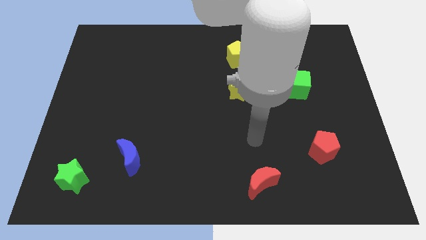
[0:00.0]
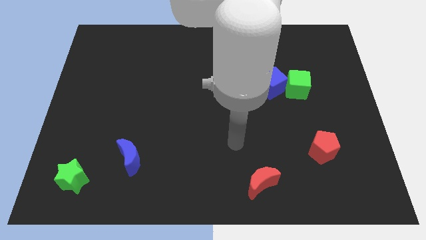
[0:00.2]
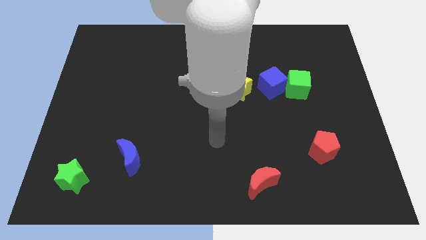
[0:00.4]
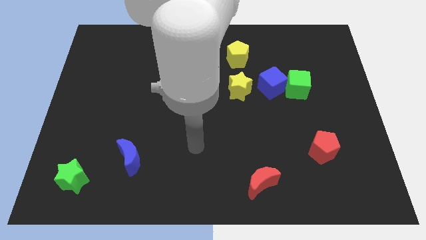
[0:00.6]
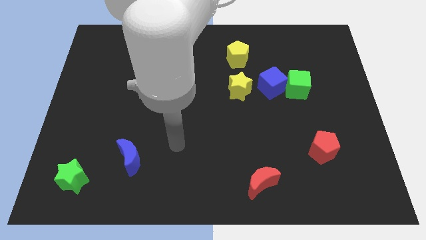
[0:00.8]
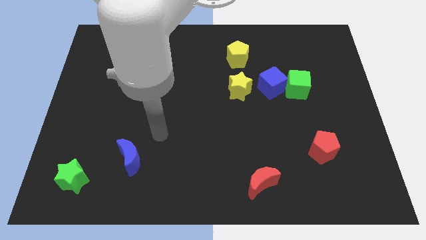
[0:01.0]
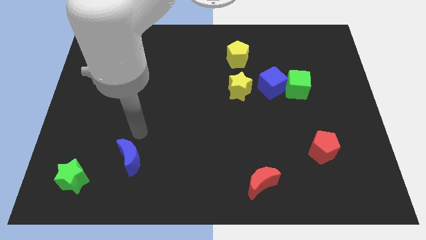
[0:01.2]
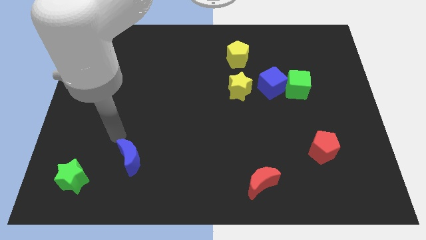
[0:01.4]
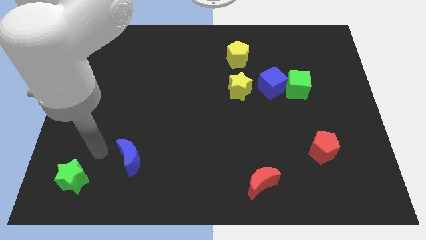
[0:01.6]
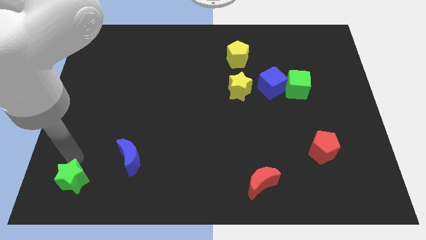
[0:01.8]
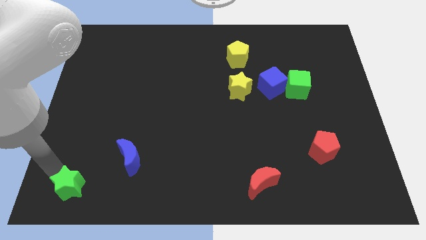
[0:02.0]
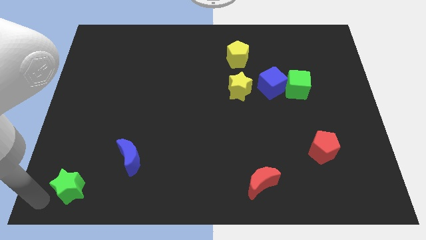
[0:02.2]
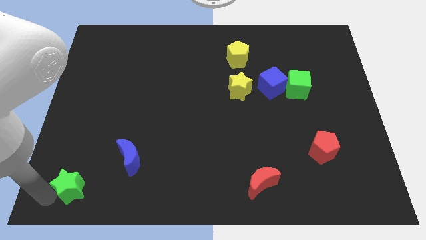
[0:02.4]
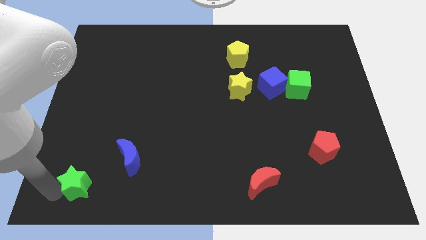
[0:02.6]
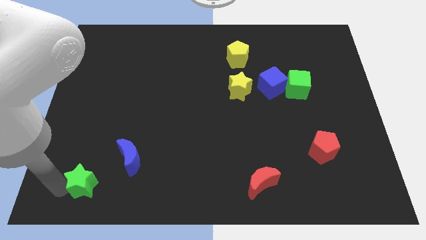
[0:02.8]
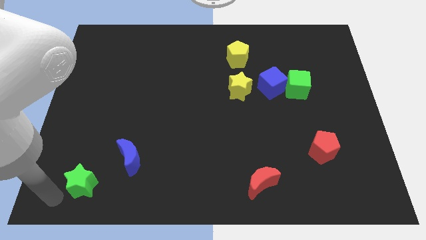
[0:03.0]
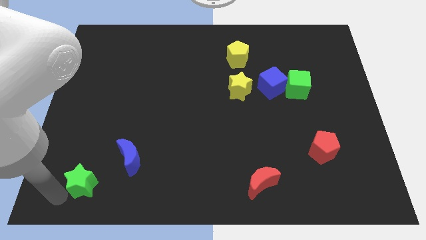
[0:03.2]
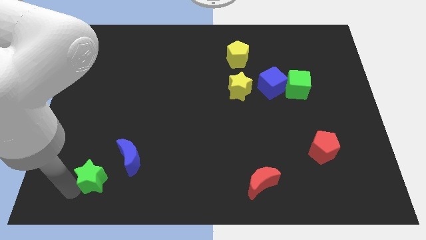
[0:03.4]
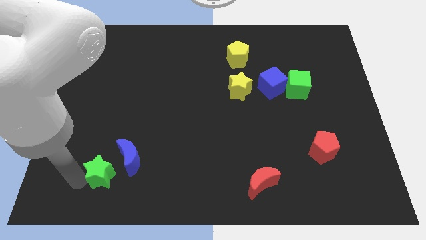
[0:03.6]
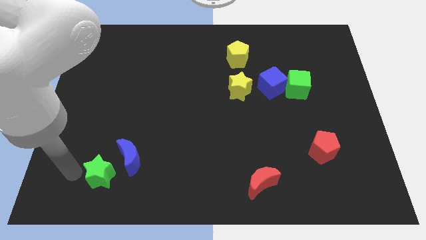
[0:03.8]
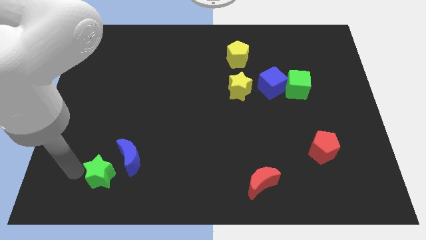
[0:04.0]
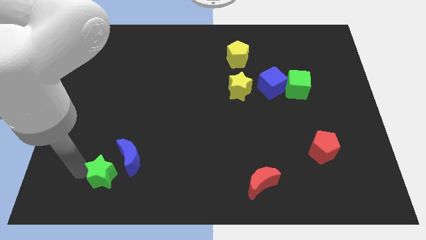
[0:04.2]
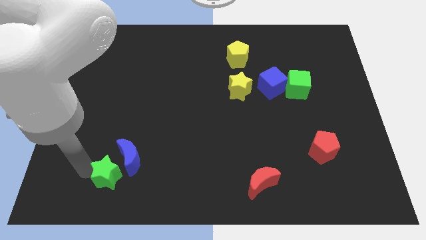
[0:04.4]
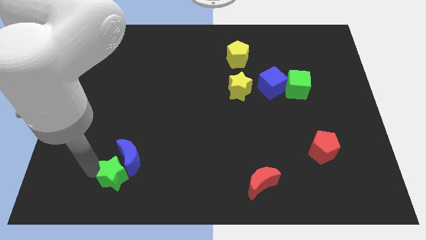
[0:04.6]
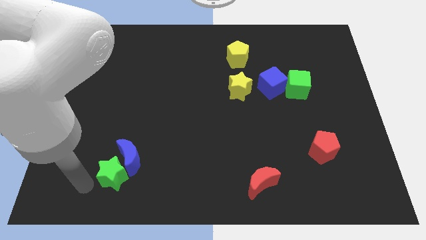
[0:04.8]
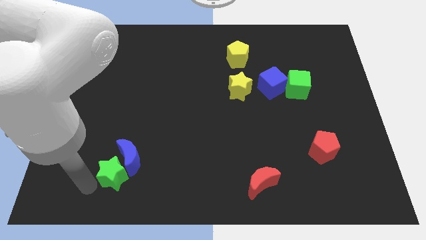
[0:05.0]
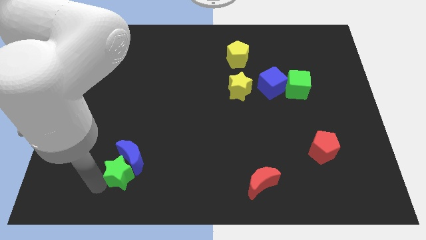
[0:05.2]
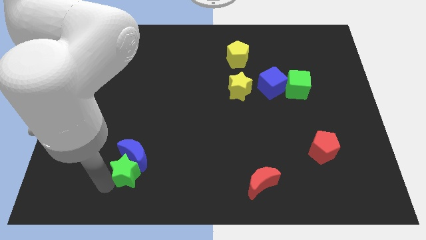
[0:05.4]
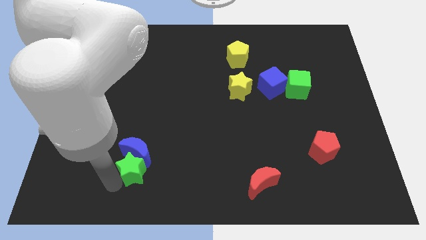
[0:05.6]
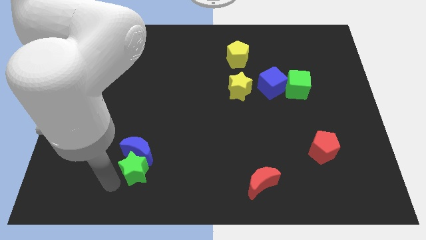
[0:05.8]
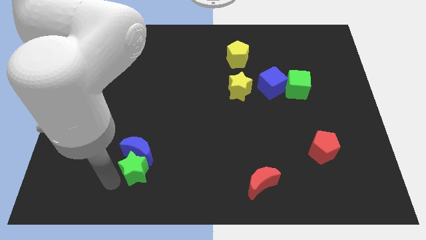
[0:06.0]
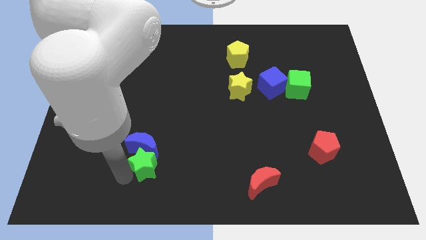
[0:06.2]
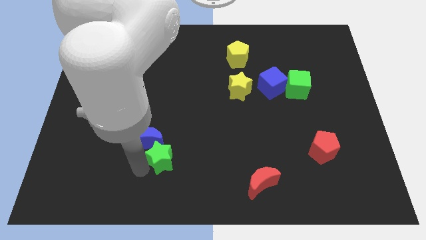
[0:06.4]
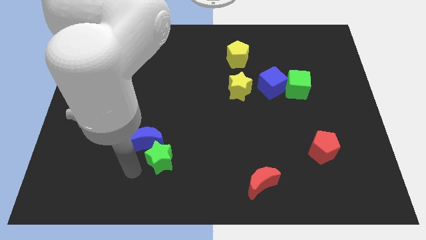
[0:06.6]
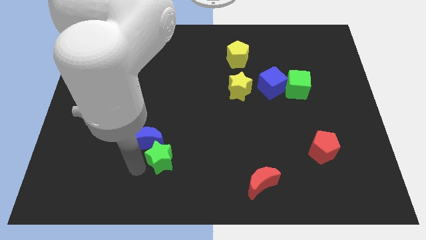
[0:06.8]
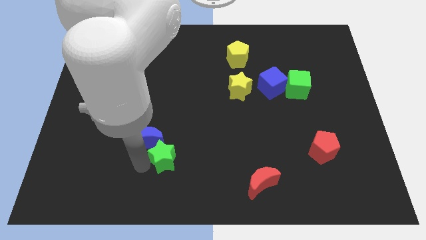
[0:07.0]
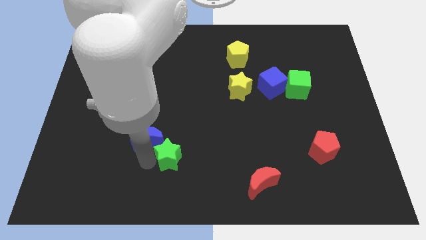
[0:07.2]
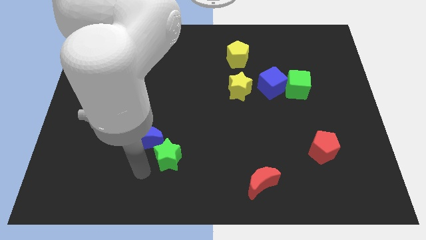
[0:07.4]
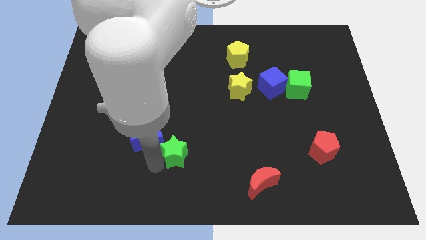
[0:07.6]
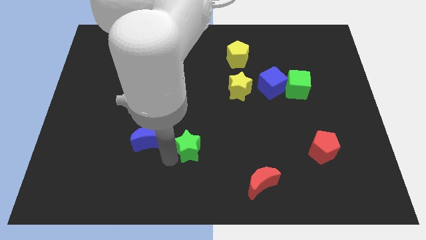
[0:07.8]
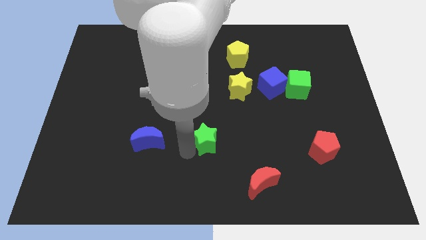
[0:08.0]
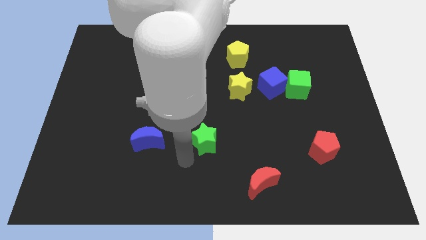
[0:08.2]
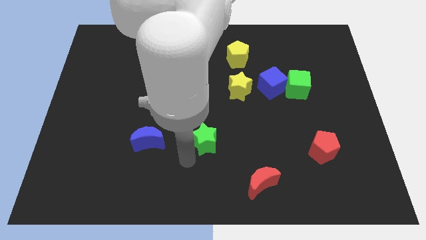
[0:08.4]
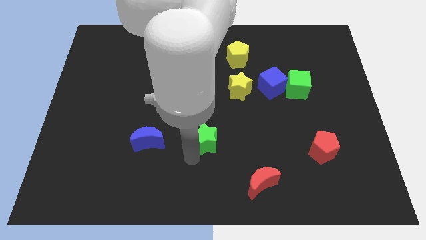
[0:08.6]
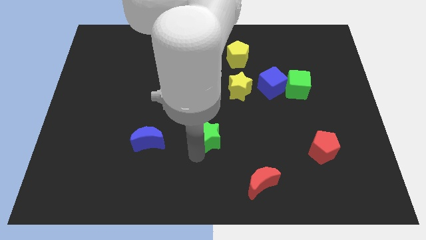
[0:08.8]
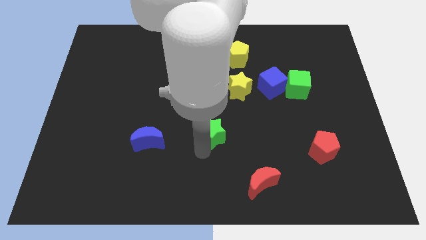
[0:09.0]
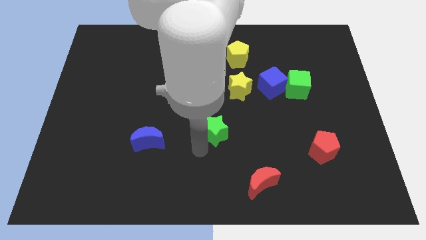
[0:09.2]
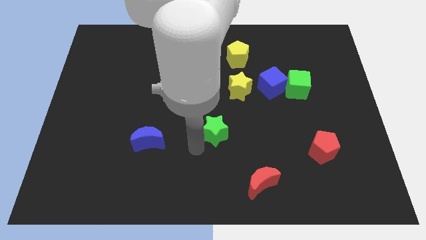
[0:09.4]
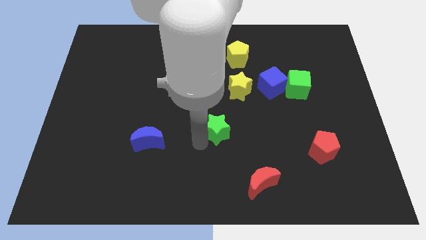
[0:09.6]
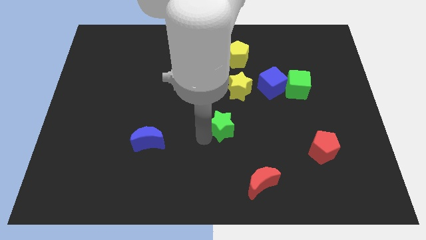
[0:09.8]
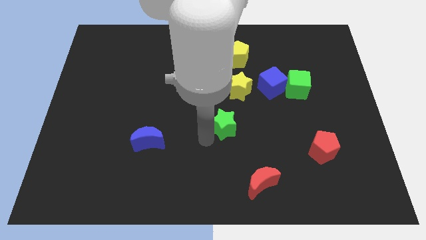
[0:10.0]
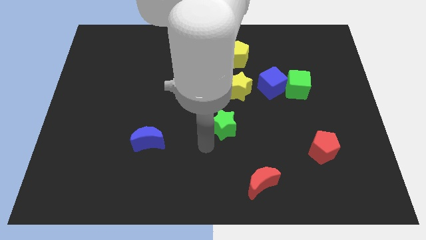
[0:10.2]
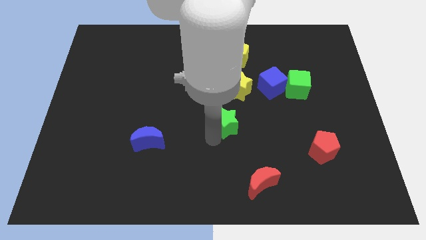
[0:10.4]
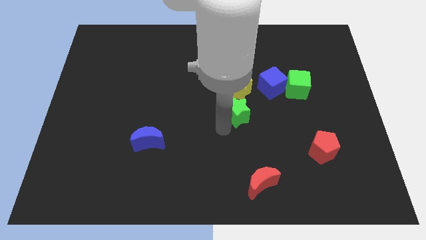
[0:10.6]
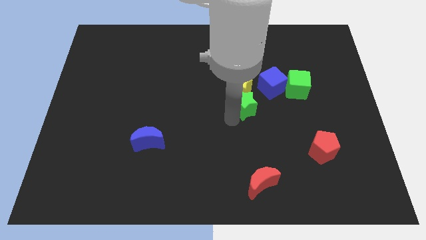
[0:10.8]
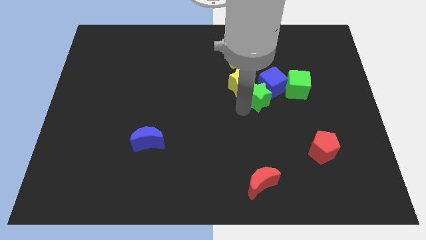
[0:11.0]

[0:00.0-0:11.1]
move the green star next to the blue cube
